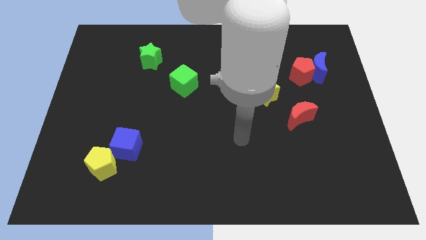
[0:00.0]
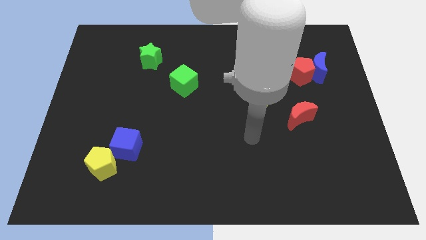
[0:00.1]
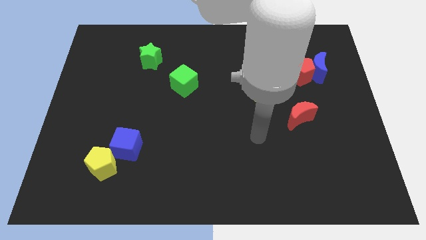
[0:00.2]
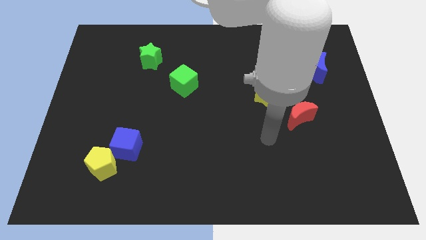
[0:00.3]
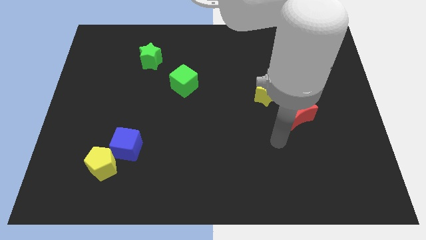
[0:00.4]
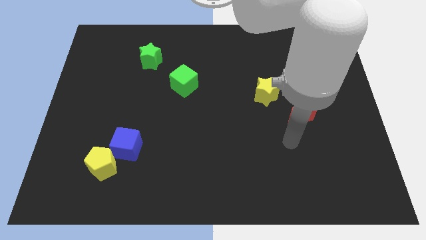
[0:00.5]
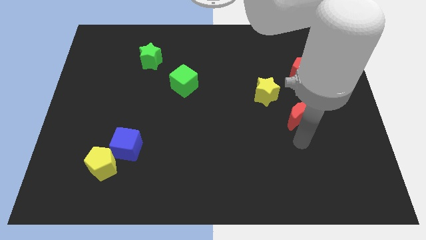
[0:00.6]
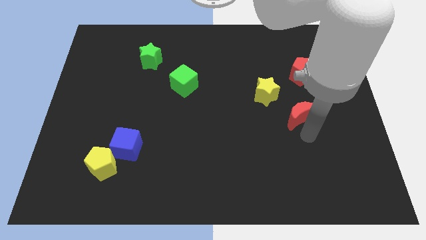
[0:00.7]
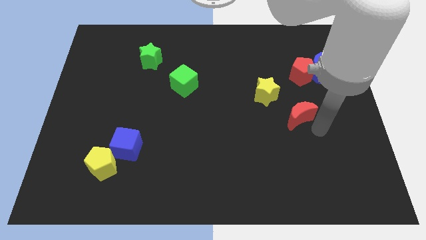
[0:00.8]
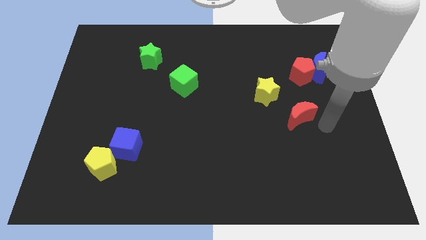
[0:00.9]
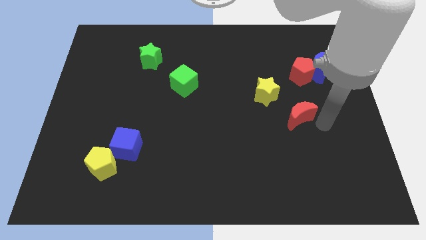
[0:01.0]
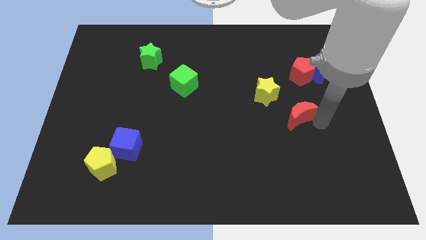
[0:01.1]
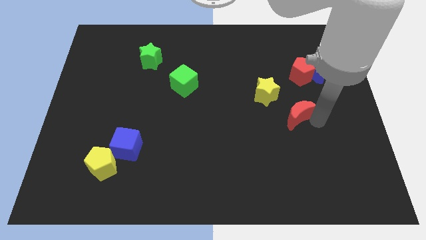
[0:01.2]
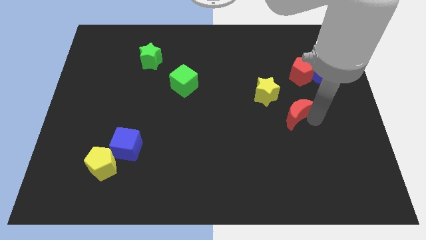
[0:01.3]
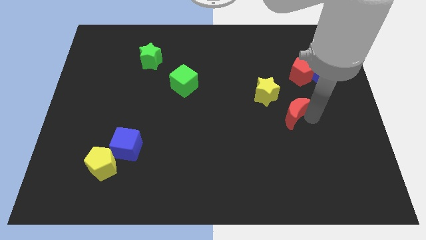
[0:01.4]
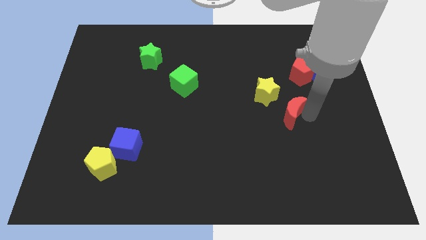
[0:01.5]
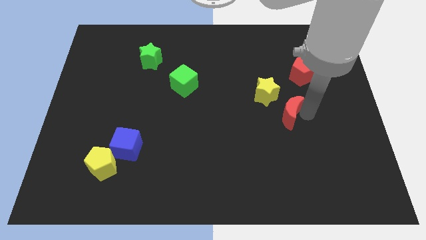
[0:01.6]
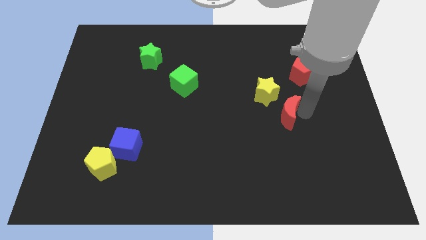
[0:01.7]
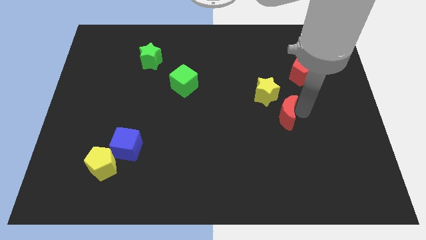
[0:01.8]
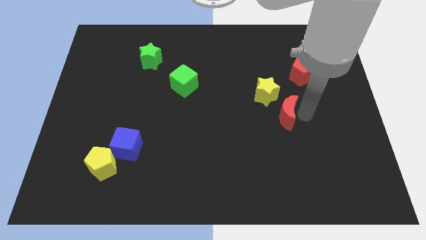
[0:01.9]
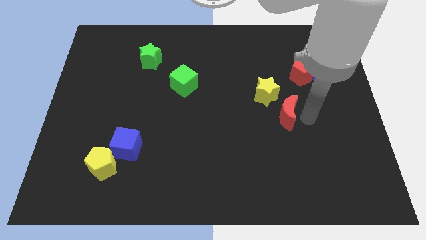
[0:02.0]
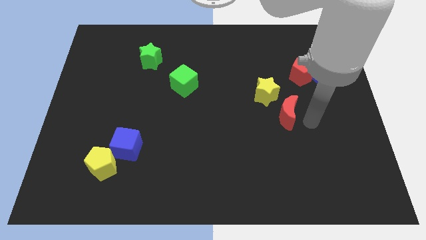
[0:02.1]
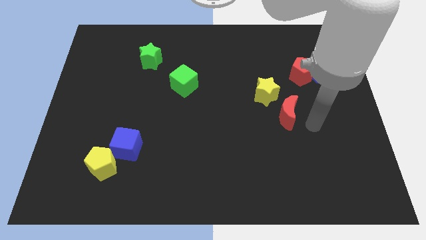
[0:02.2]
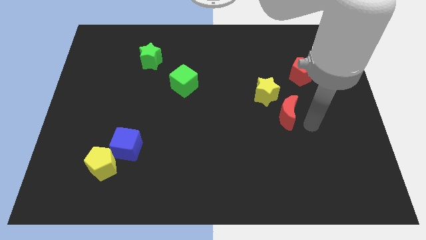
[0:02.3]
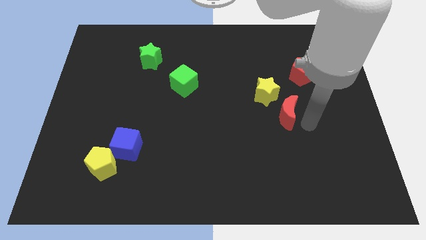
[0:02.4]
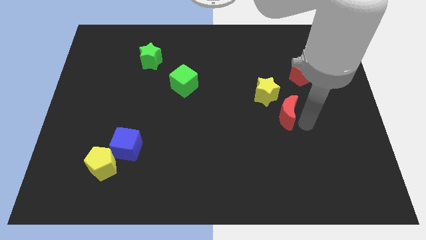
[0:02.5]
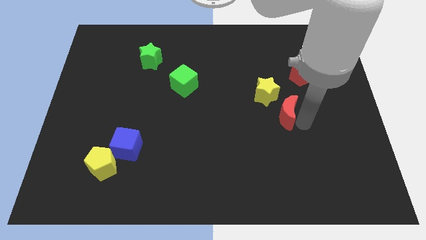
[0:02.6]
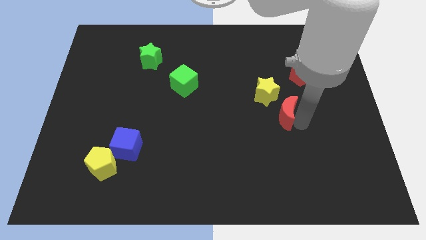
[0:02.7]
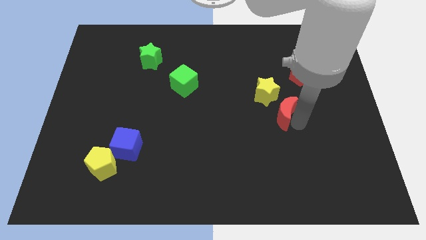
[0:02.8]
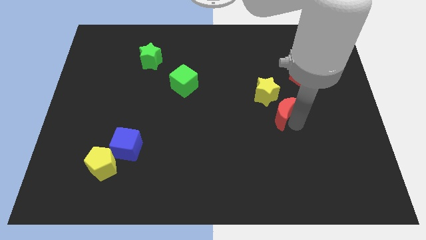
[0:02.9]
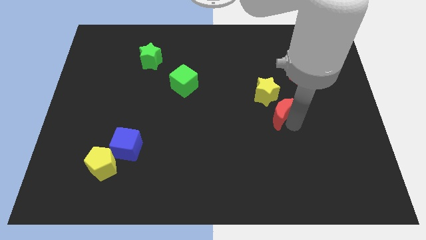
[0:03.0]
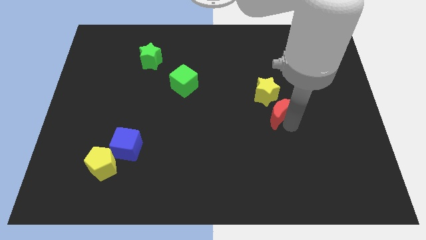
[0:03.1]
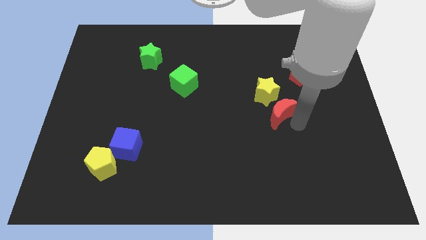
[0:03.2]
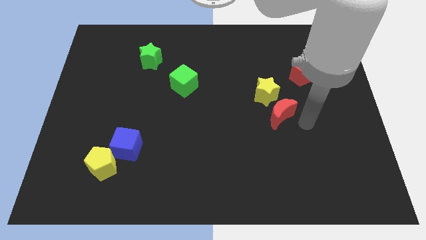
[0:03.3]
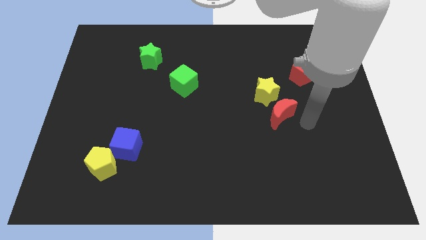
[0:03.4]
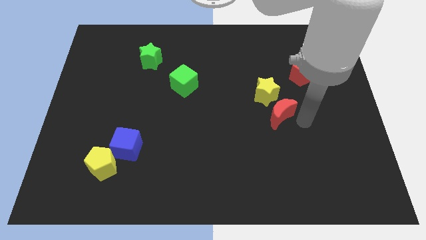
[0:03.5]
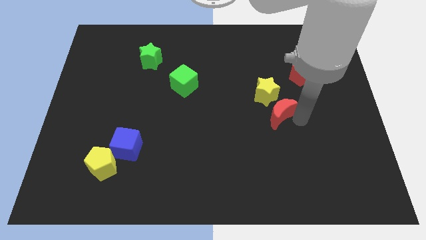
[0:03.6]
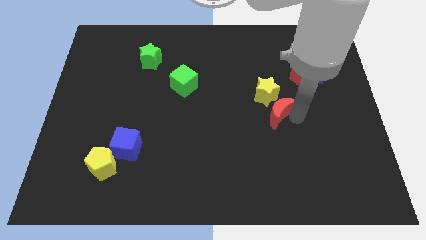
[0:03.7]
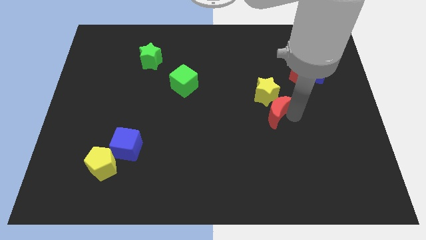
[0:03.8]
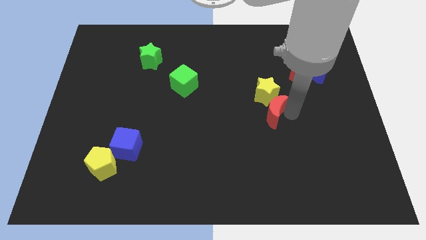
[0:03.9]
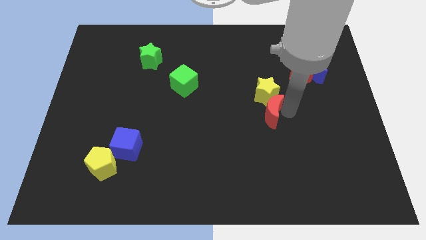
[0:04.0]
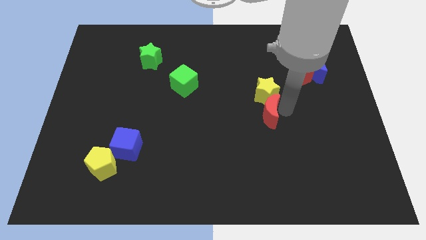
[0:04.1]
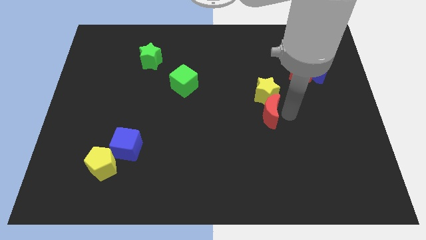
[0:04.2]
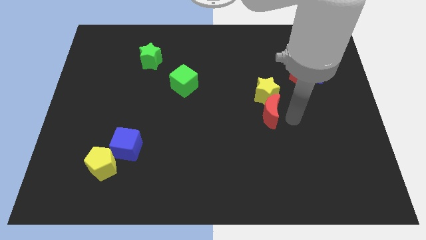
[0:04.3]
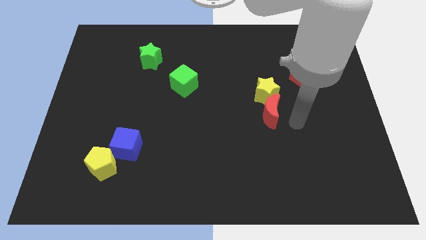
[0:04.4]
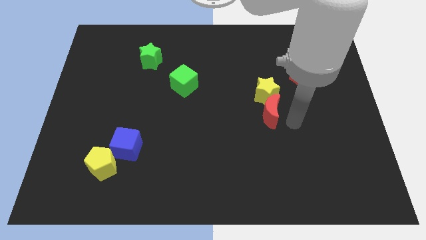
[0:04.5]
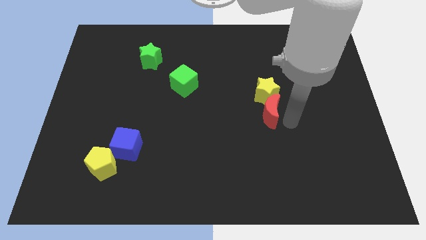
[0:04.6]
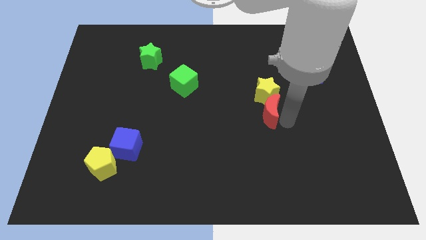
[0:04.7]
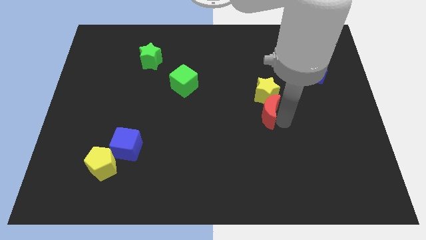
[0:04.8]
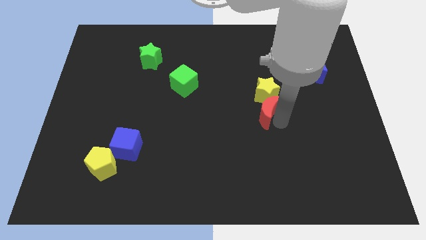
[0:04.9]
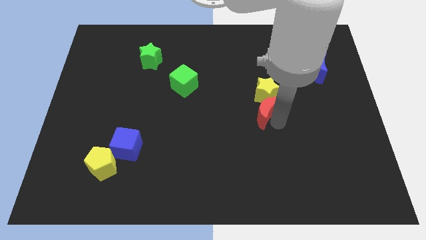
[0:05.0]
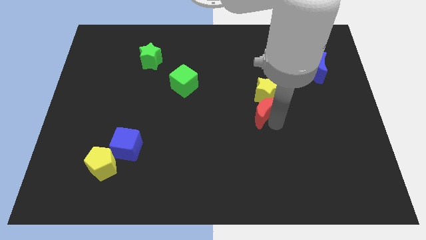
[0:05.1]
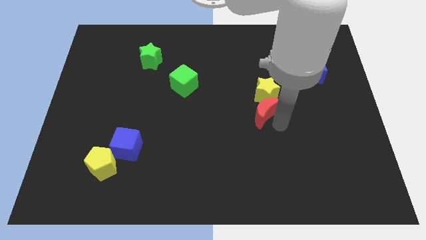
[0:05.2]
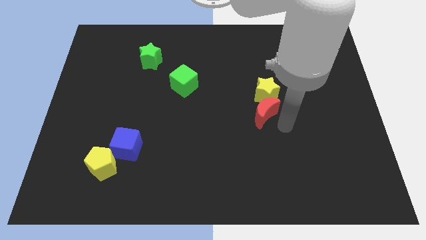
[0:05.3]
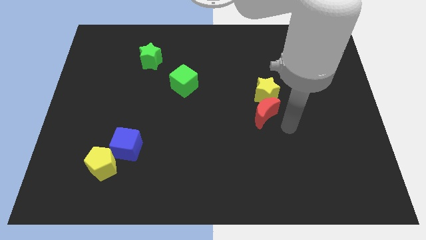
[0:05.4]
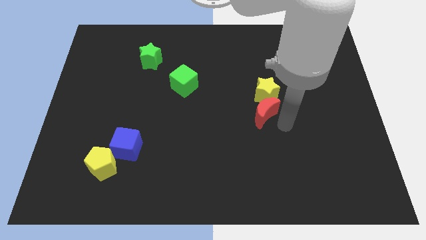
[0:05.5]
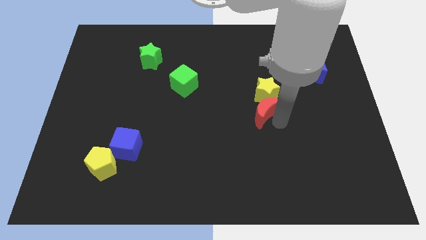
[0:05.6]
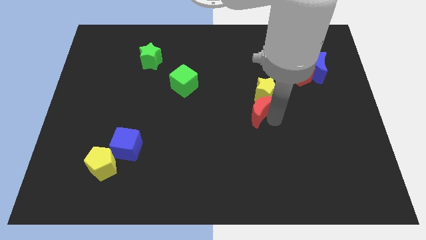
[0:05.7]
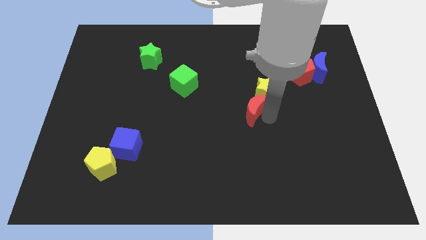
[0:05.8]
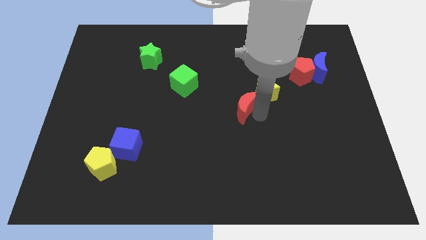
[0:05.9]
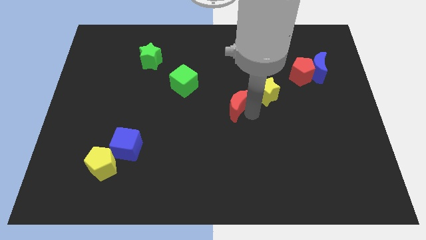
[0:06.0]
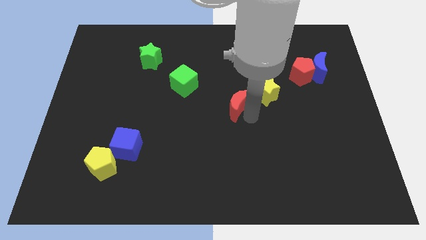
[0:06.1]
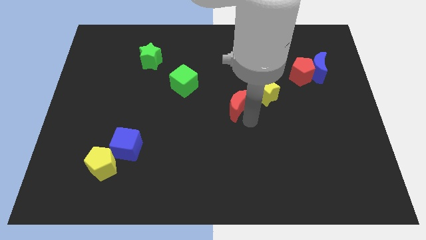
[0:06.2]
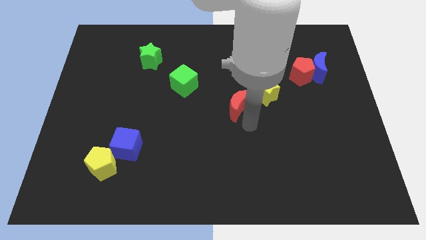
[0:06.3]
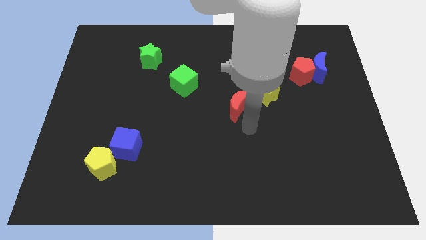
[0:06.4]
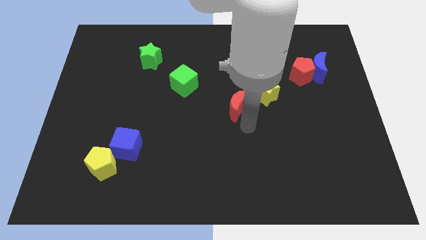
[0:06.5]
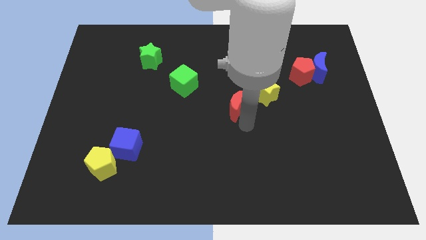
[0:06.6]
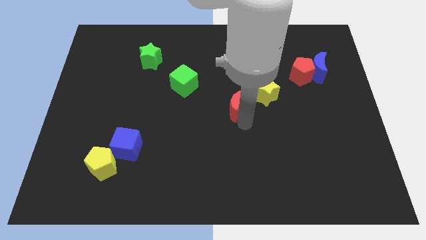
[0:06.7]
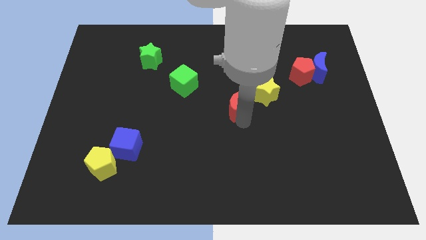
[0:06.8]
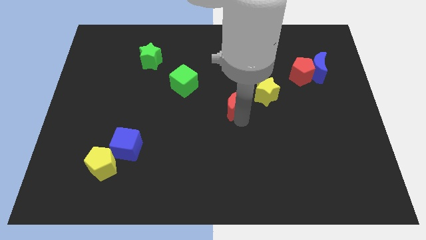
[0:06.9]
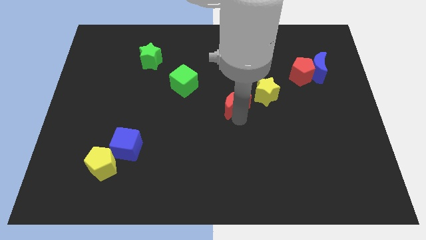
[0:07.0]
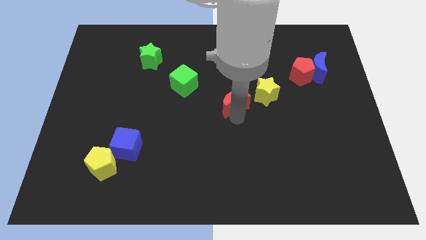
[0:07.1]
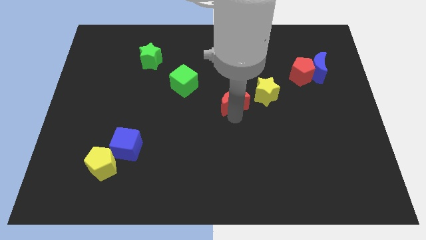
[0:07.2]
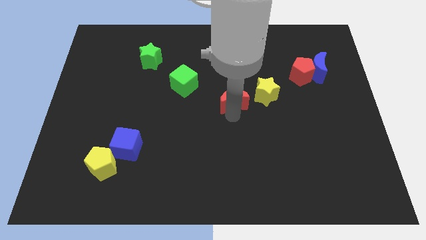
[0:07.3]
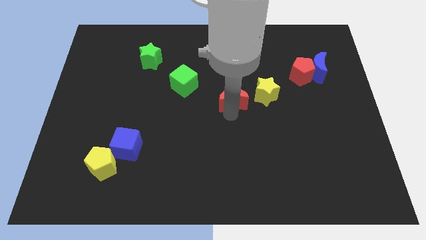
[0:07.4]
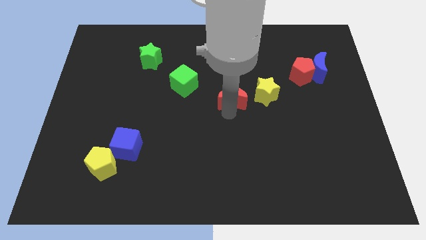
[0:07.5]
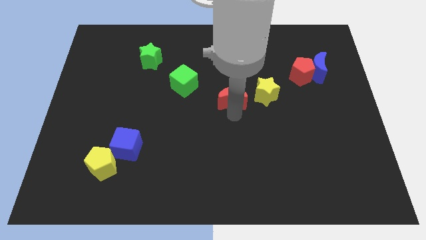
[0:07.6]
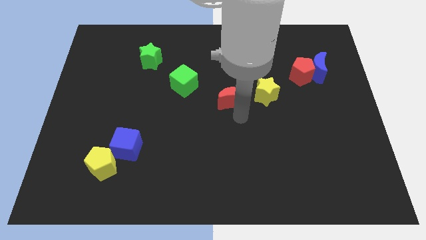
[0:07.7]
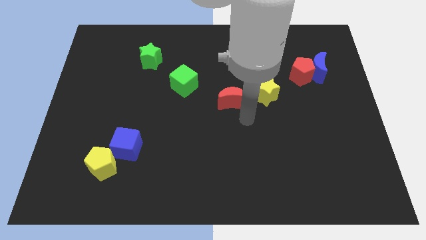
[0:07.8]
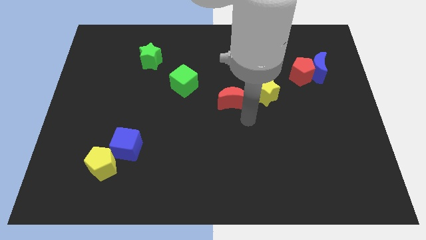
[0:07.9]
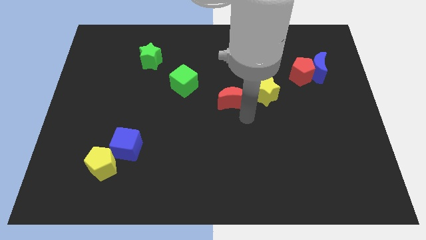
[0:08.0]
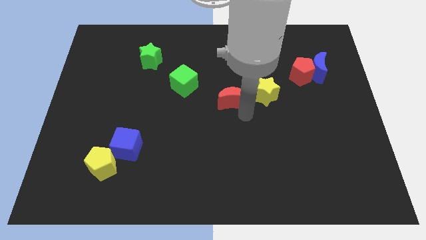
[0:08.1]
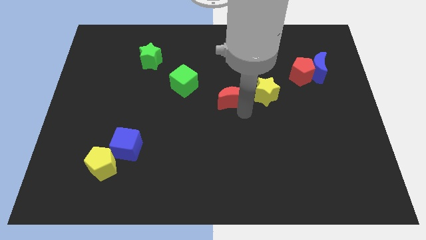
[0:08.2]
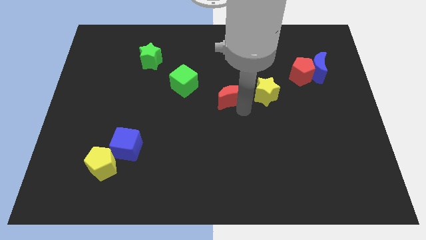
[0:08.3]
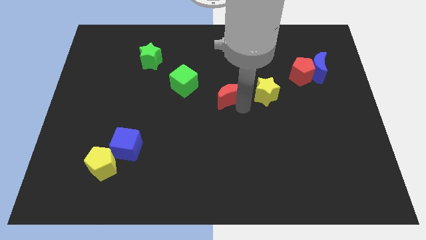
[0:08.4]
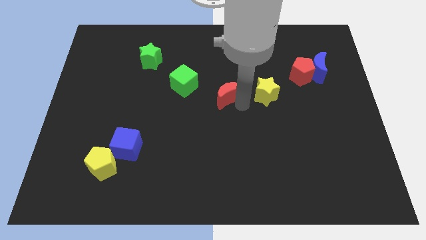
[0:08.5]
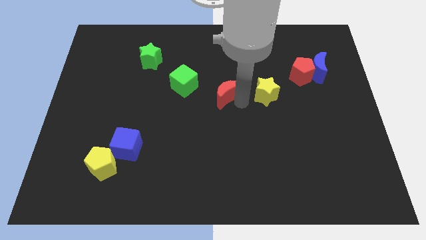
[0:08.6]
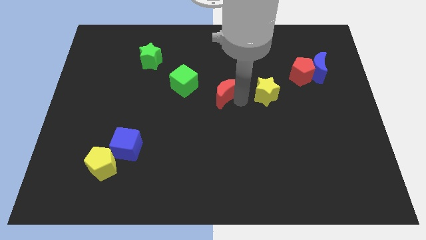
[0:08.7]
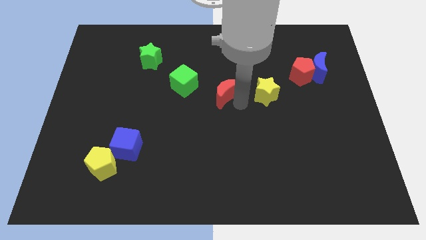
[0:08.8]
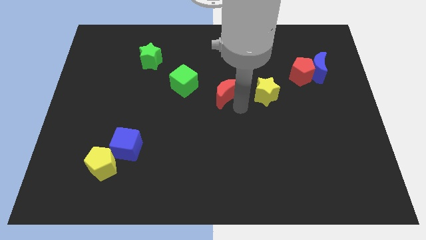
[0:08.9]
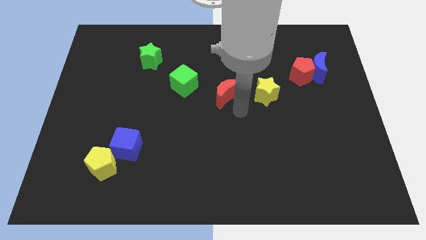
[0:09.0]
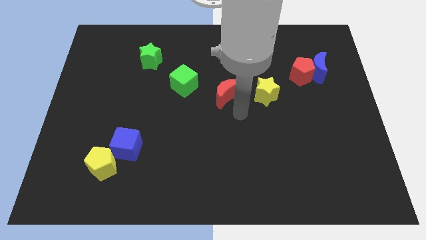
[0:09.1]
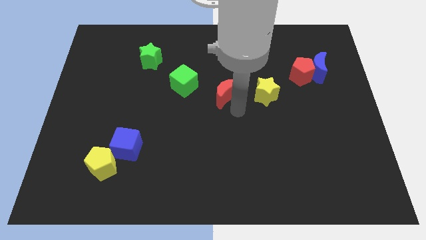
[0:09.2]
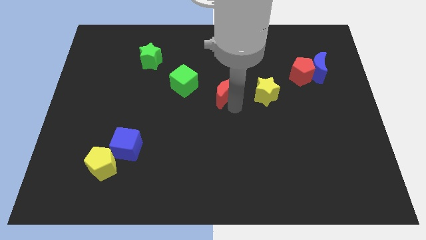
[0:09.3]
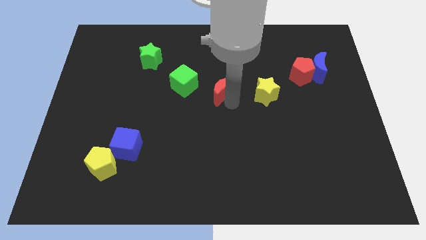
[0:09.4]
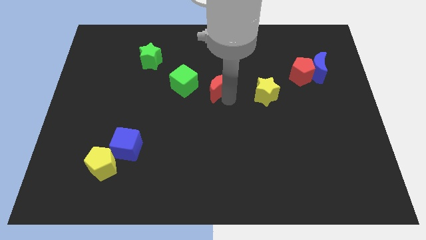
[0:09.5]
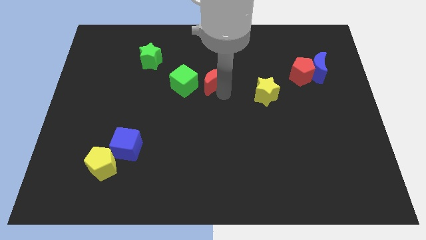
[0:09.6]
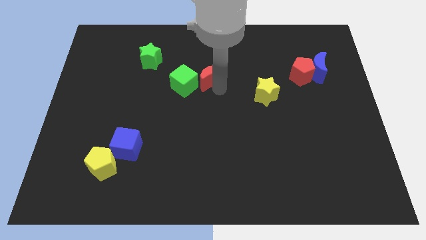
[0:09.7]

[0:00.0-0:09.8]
slide the red moon to the top right side of the green cube
